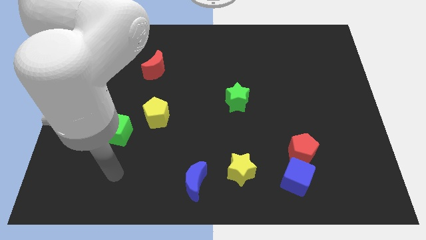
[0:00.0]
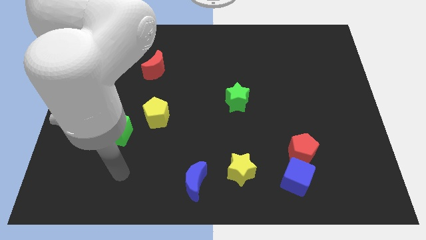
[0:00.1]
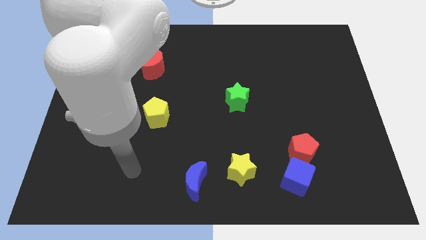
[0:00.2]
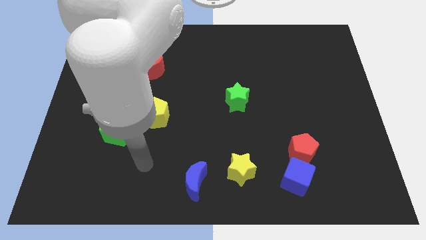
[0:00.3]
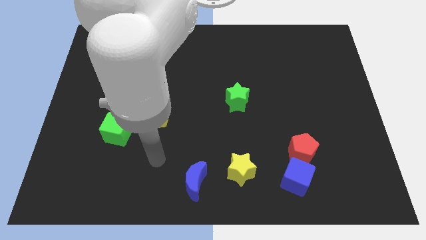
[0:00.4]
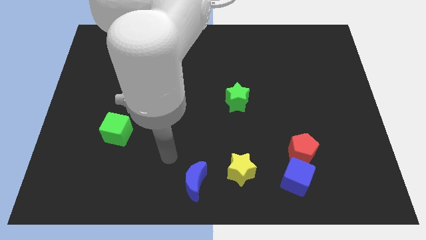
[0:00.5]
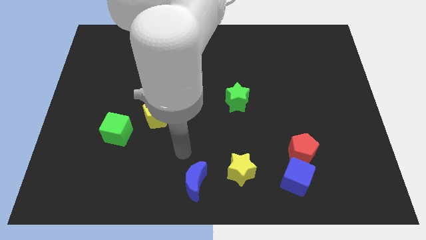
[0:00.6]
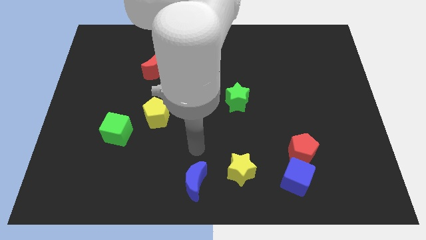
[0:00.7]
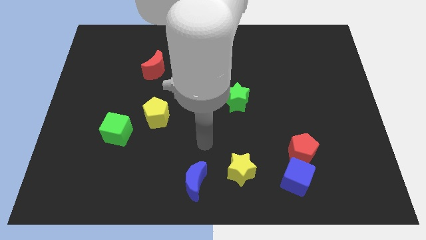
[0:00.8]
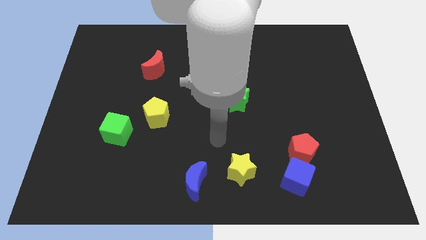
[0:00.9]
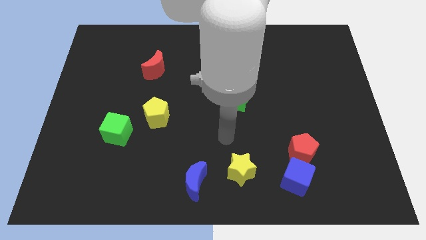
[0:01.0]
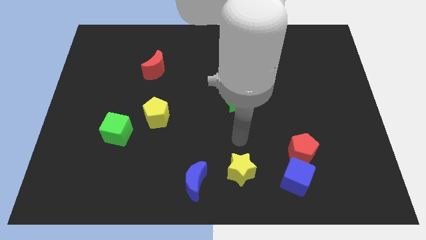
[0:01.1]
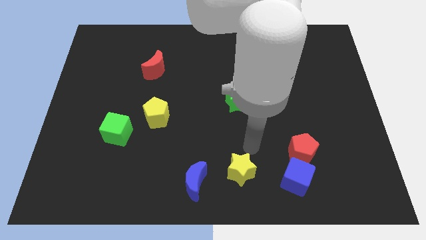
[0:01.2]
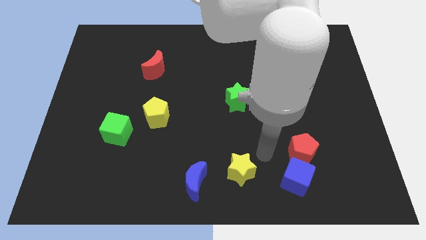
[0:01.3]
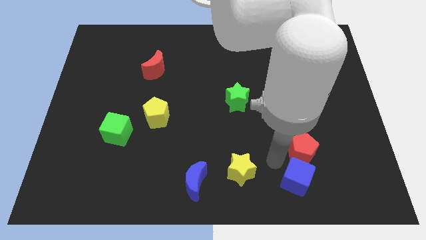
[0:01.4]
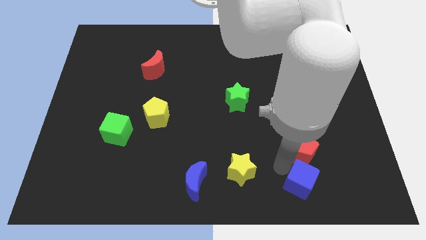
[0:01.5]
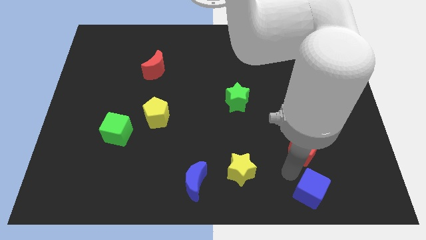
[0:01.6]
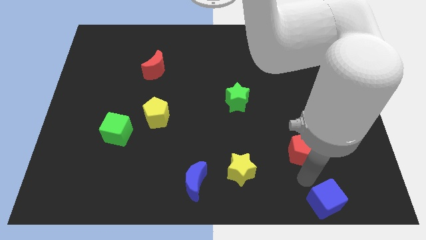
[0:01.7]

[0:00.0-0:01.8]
move the red pentagon away from the blue cube

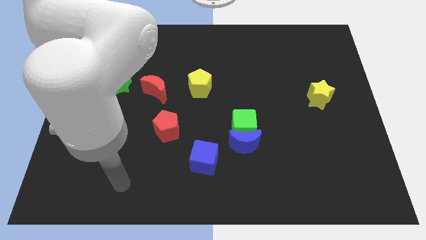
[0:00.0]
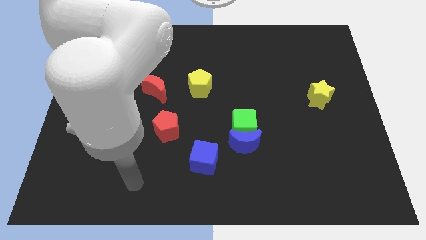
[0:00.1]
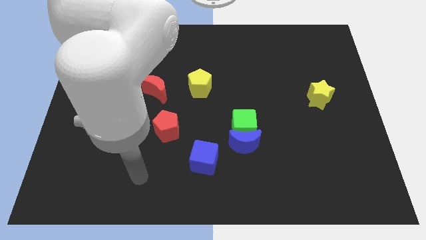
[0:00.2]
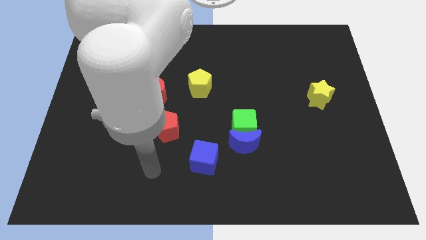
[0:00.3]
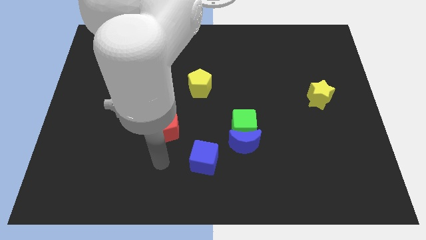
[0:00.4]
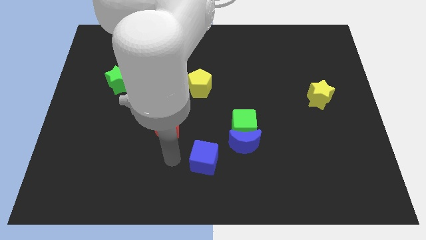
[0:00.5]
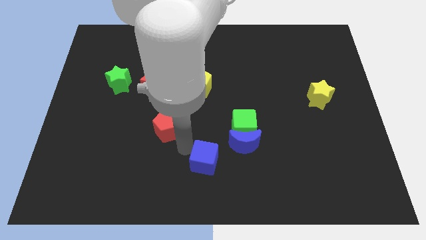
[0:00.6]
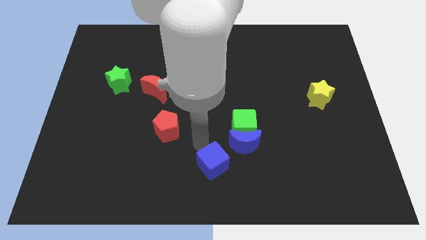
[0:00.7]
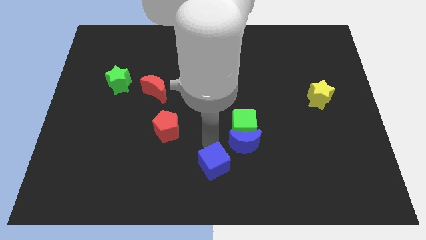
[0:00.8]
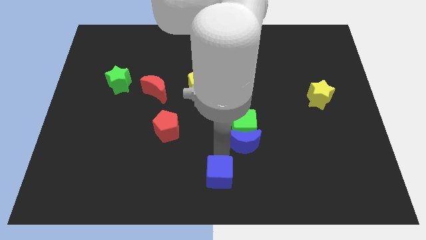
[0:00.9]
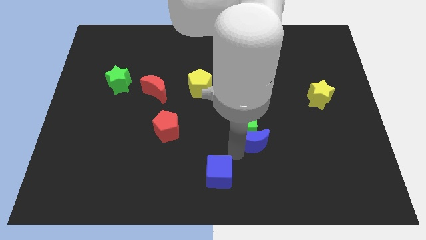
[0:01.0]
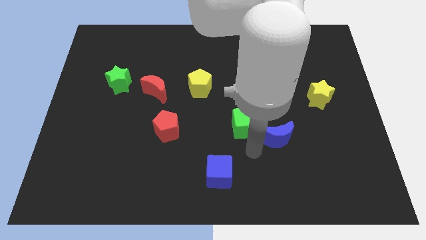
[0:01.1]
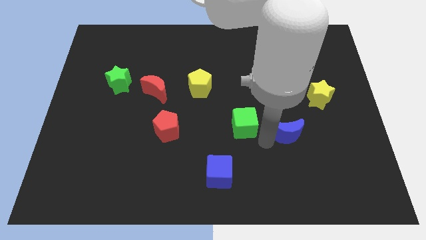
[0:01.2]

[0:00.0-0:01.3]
pull the green cube apart from the blue moon

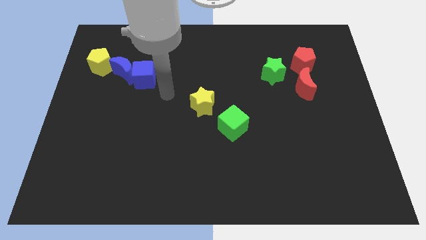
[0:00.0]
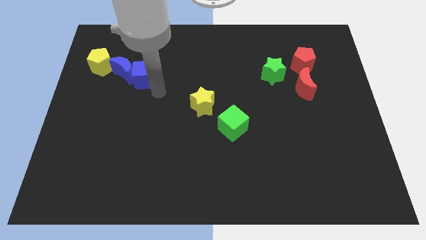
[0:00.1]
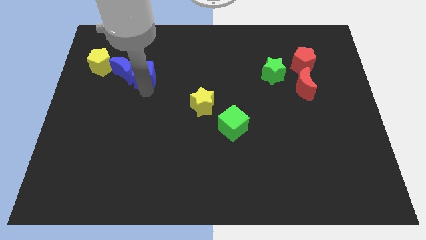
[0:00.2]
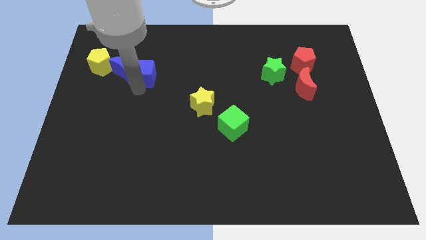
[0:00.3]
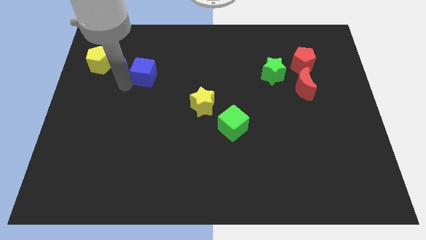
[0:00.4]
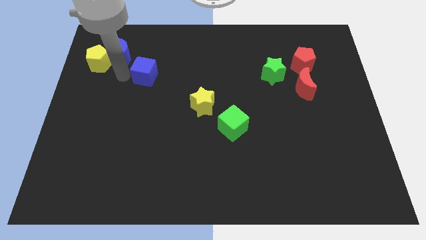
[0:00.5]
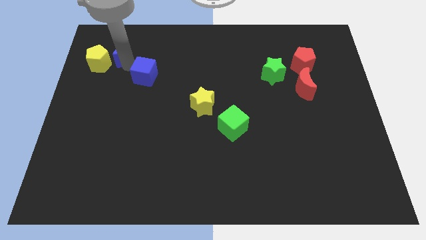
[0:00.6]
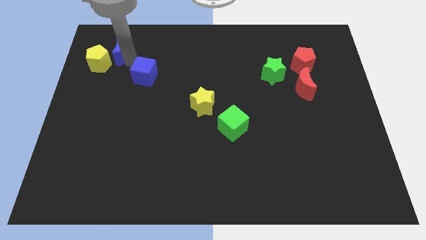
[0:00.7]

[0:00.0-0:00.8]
move the blue cube away from the blue moon

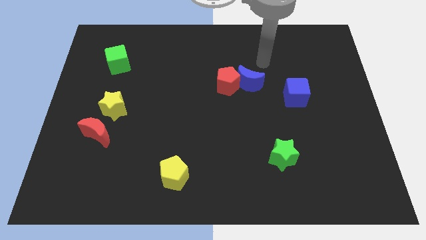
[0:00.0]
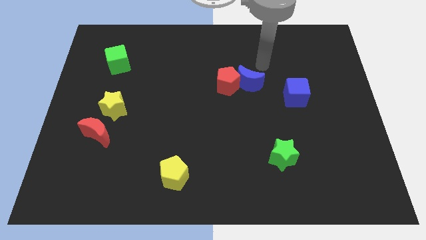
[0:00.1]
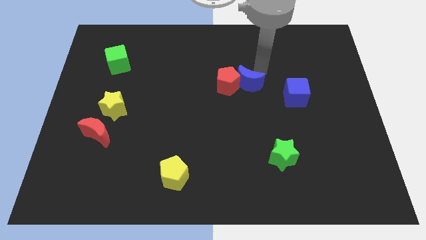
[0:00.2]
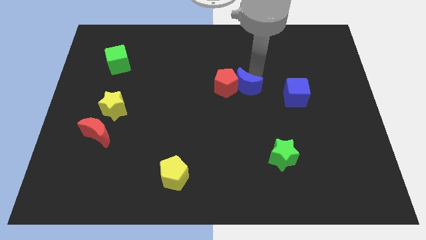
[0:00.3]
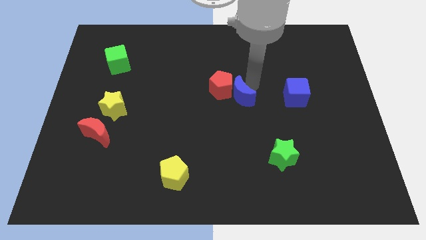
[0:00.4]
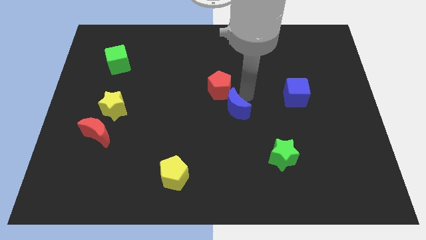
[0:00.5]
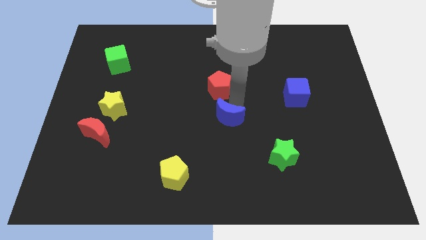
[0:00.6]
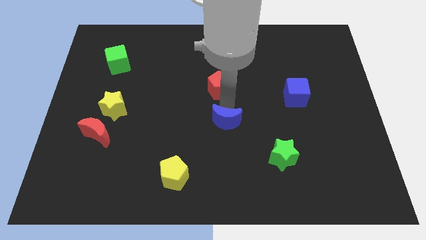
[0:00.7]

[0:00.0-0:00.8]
move the red pentagon away from the blue moon

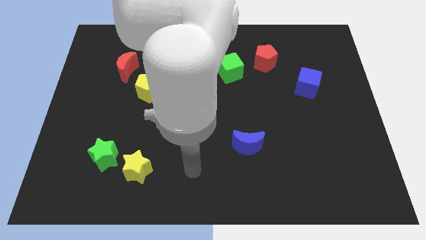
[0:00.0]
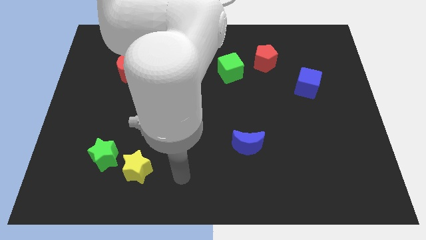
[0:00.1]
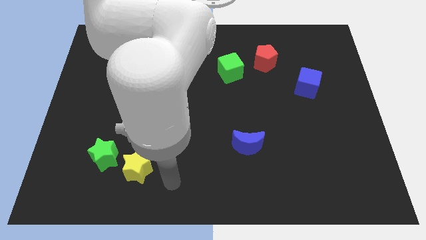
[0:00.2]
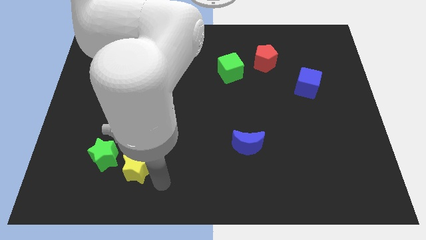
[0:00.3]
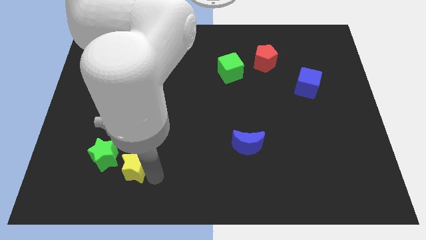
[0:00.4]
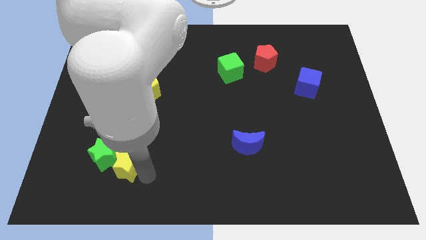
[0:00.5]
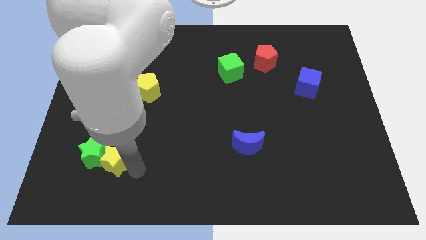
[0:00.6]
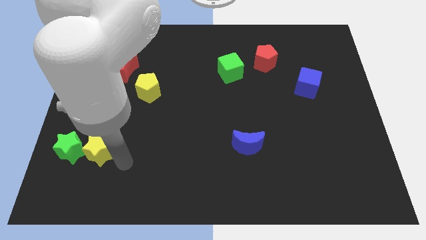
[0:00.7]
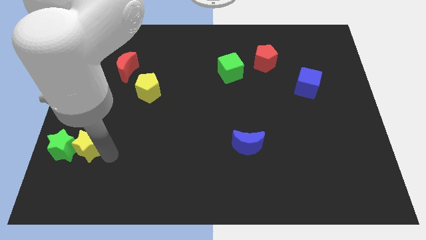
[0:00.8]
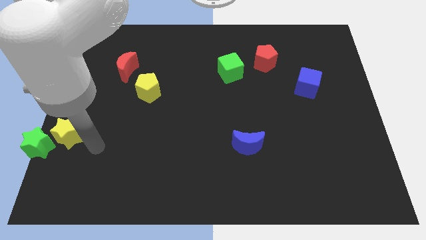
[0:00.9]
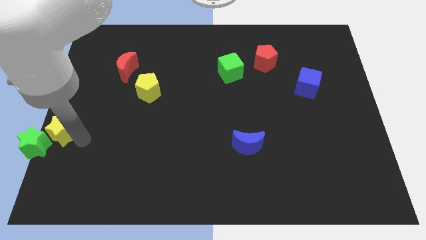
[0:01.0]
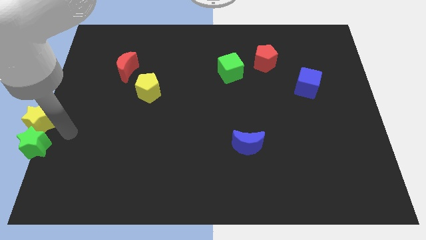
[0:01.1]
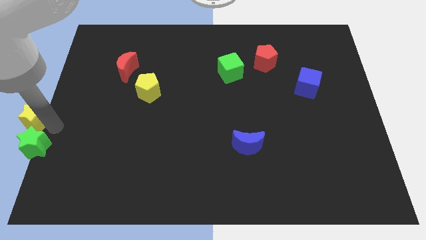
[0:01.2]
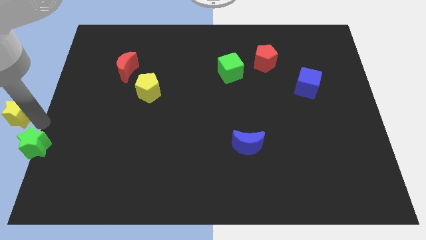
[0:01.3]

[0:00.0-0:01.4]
separate the green star from the yellow star

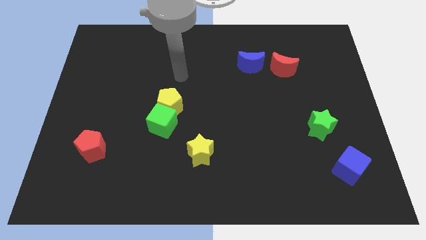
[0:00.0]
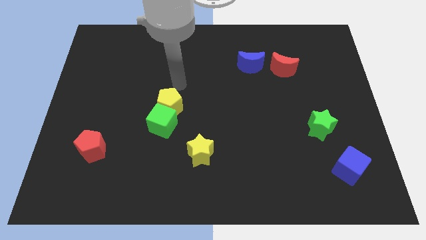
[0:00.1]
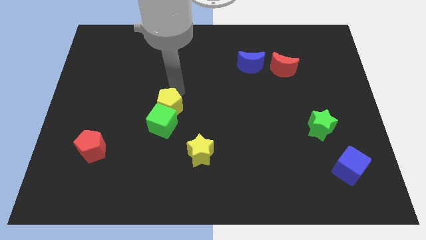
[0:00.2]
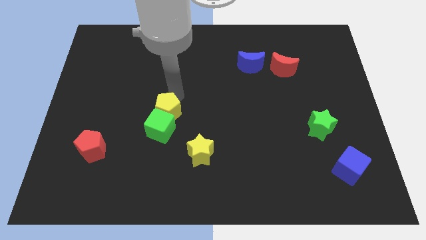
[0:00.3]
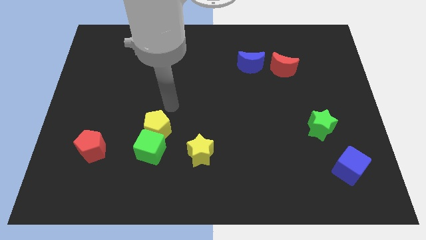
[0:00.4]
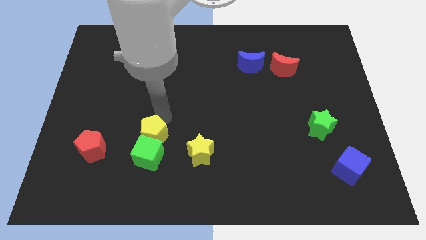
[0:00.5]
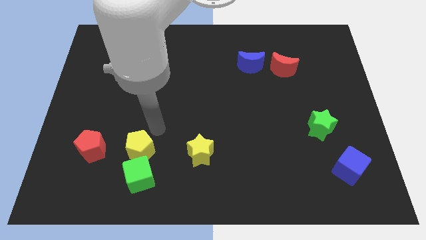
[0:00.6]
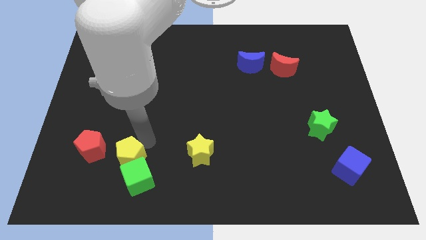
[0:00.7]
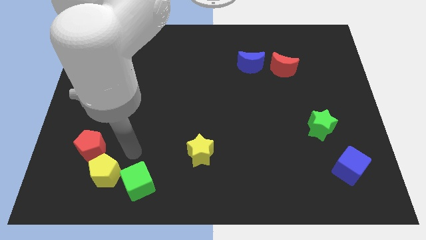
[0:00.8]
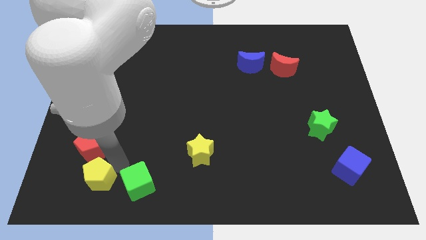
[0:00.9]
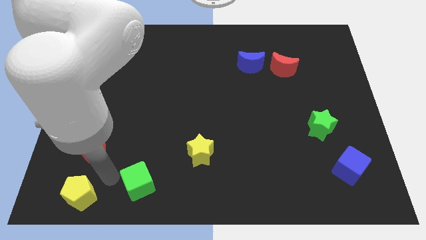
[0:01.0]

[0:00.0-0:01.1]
move the green cube away from the yellow pentagon

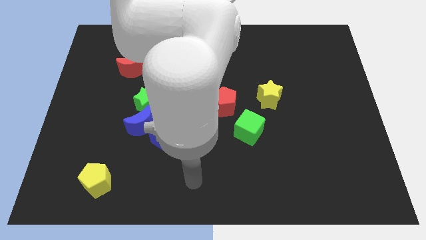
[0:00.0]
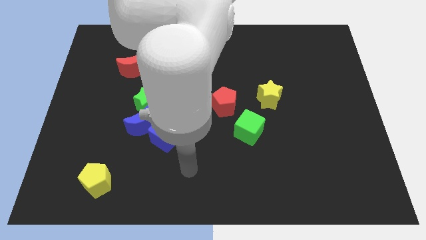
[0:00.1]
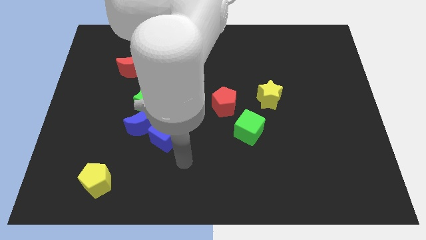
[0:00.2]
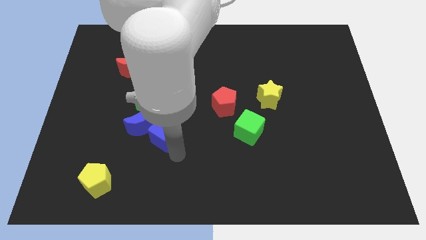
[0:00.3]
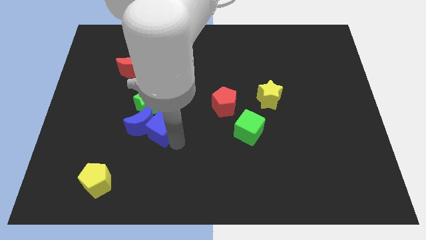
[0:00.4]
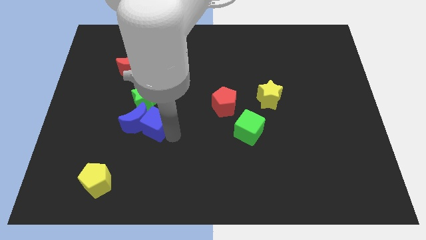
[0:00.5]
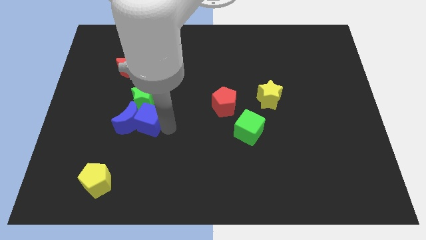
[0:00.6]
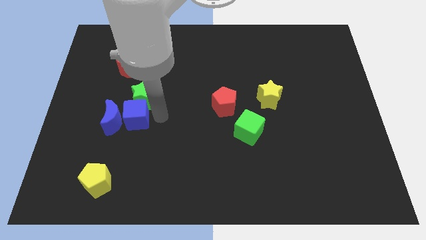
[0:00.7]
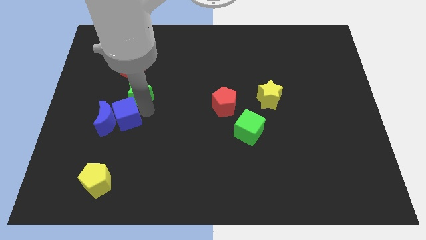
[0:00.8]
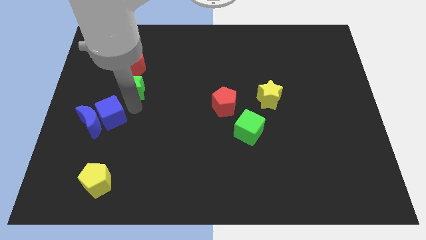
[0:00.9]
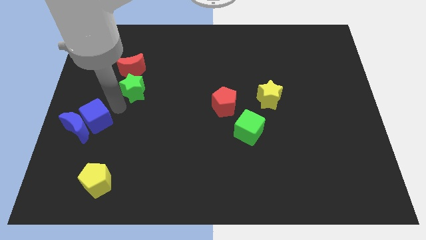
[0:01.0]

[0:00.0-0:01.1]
pull the blue moon apart from the green star and blue cube

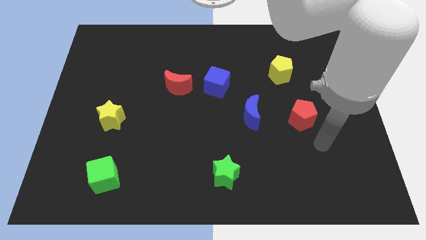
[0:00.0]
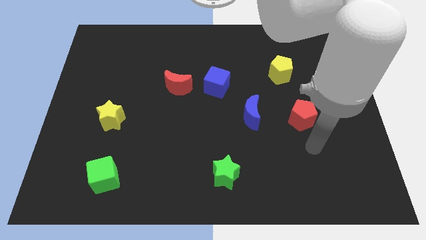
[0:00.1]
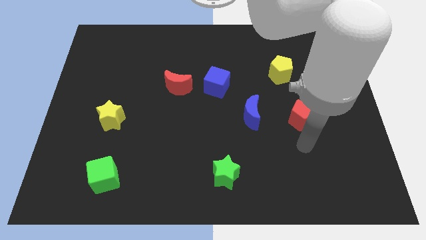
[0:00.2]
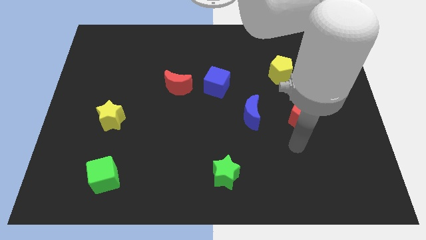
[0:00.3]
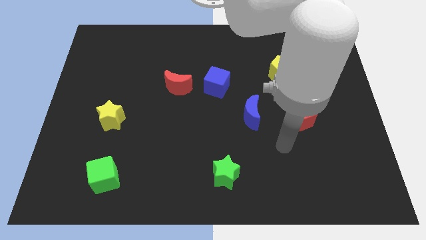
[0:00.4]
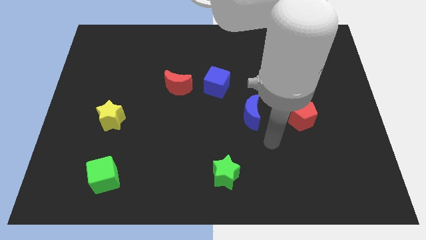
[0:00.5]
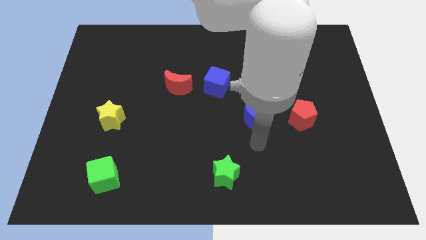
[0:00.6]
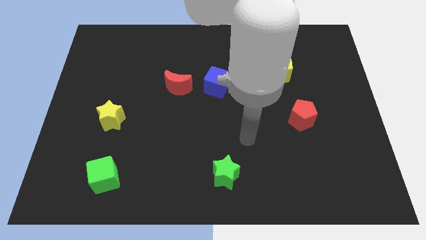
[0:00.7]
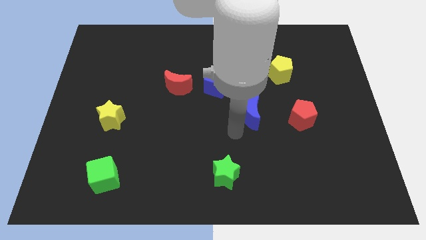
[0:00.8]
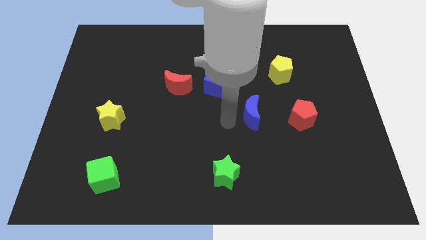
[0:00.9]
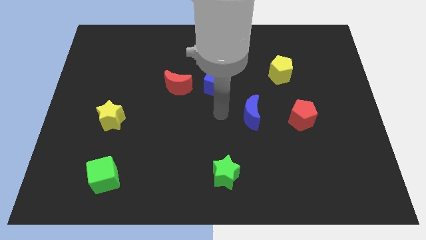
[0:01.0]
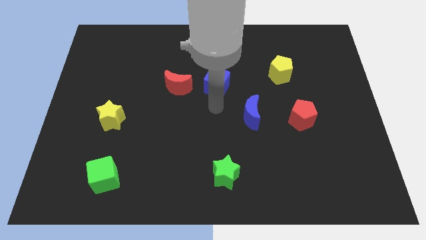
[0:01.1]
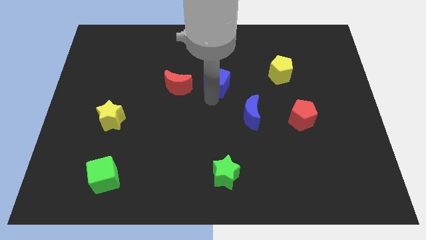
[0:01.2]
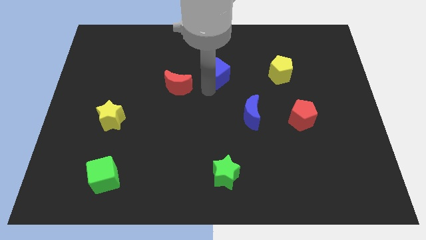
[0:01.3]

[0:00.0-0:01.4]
pull the red moon apart from the blue cube
